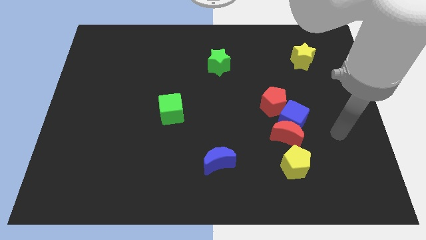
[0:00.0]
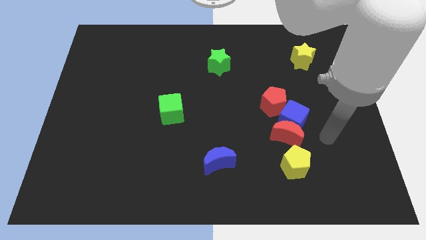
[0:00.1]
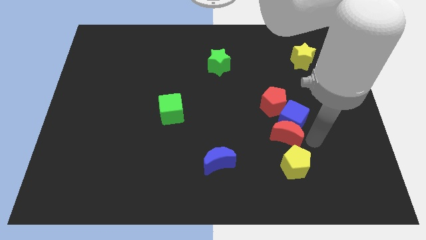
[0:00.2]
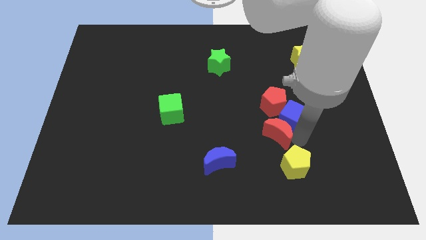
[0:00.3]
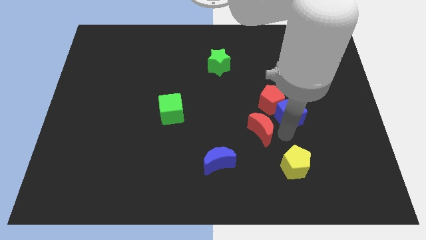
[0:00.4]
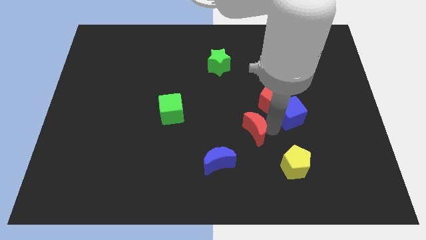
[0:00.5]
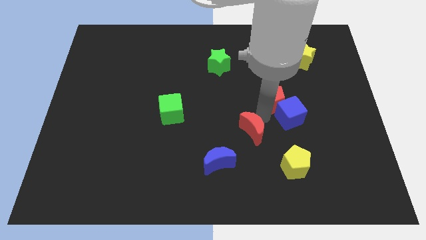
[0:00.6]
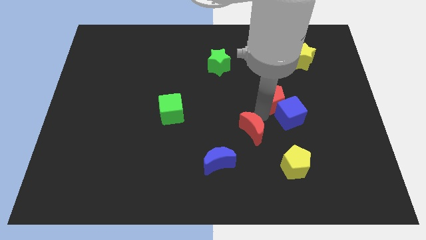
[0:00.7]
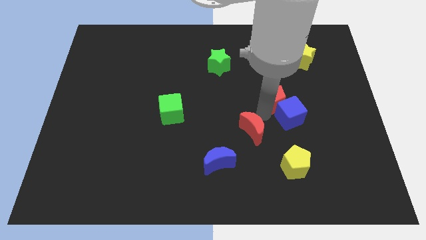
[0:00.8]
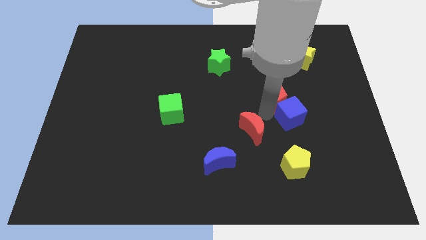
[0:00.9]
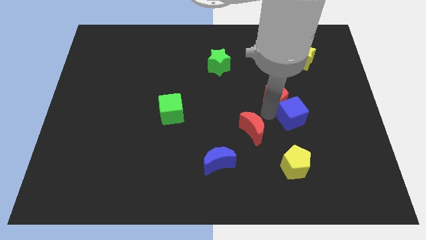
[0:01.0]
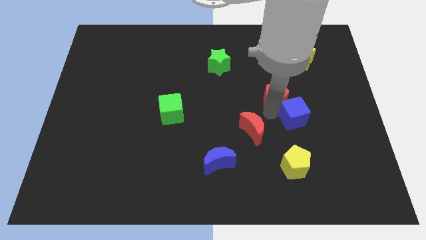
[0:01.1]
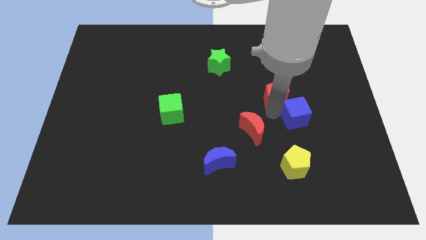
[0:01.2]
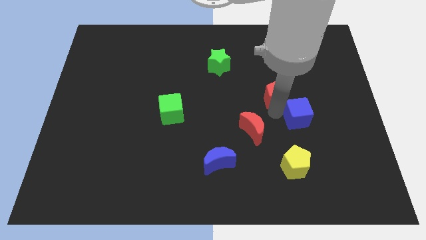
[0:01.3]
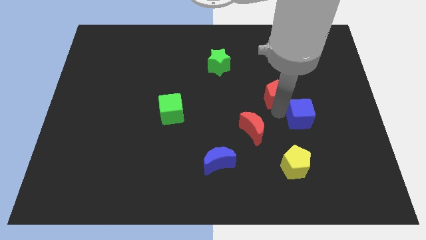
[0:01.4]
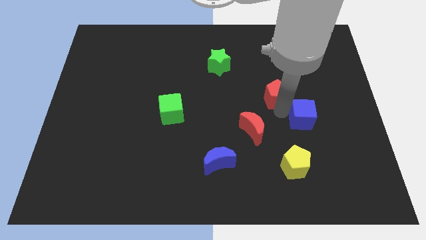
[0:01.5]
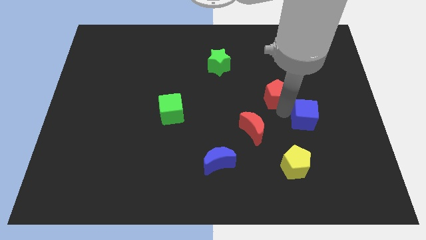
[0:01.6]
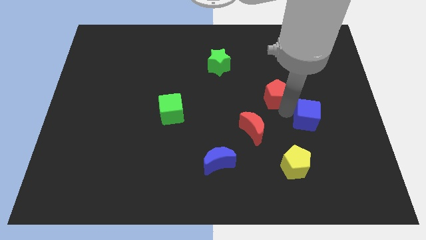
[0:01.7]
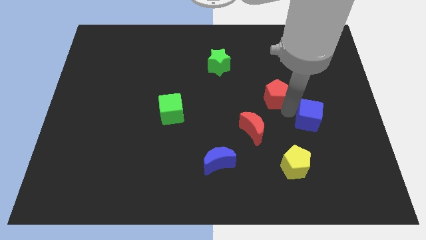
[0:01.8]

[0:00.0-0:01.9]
separate the blue cube from the red moon and red pentagon

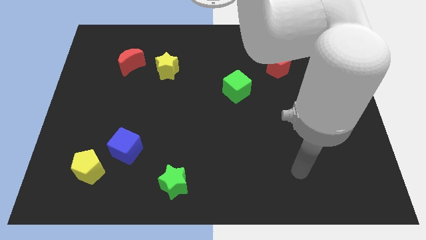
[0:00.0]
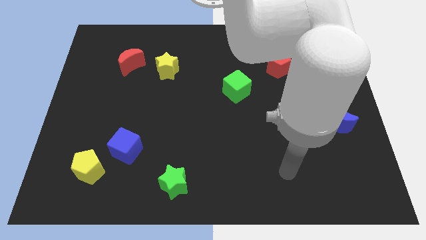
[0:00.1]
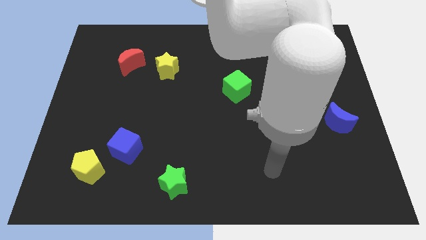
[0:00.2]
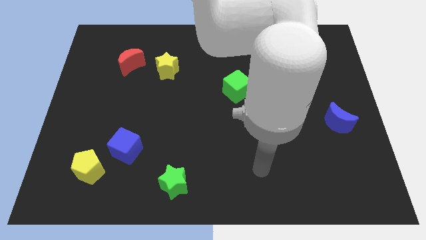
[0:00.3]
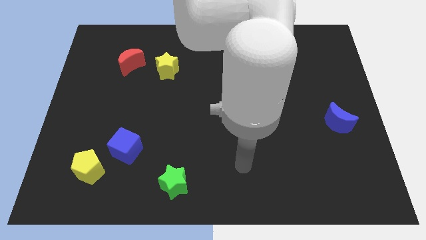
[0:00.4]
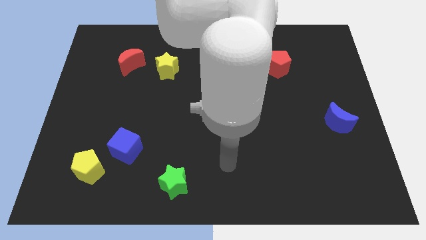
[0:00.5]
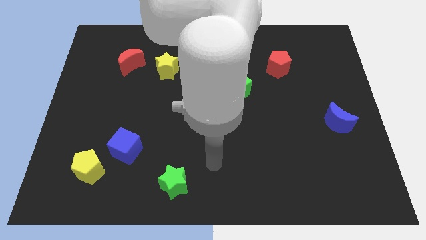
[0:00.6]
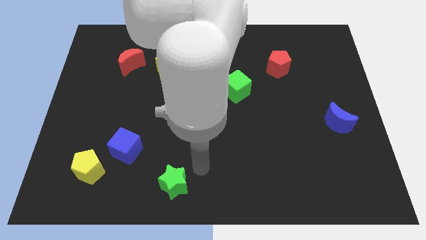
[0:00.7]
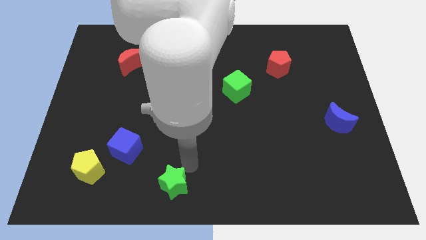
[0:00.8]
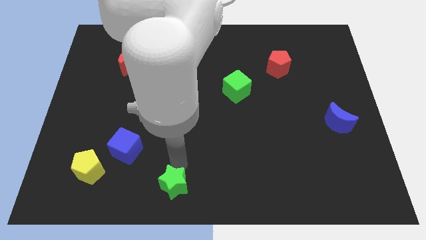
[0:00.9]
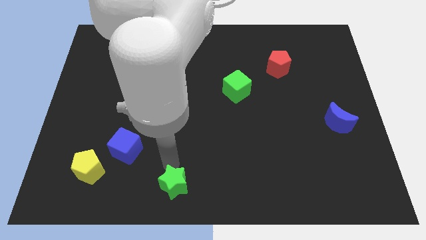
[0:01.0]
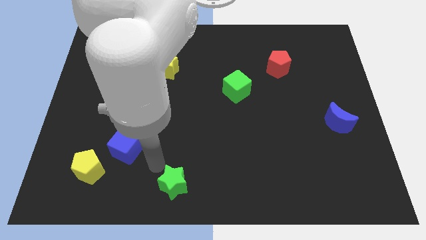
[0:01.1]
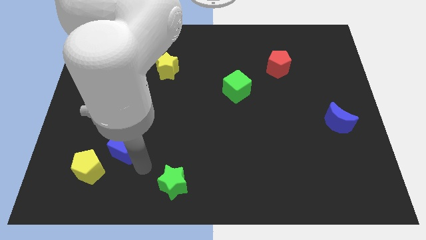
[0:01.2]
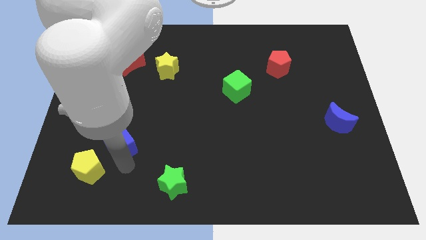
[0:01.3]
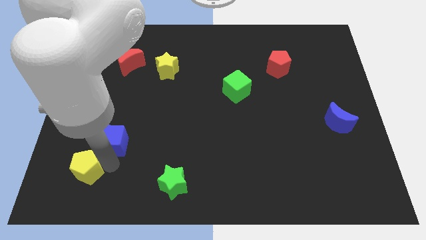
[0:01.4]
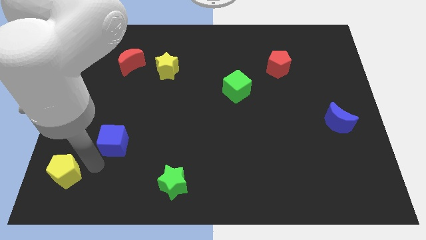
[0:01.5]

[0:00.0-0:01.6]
move the blue cube away from the yellow pentagon

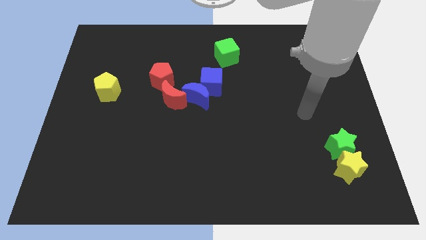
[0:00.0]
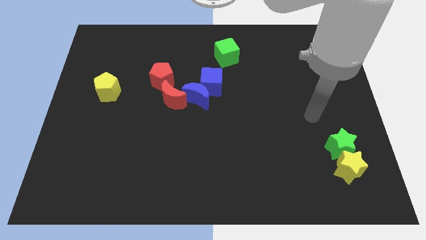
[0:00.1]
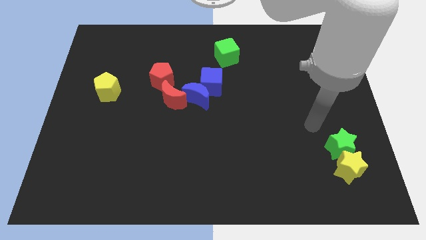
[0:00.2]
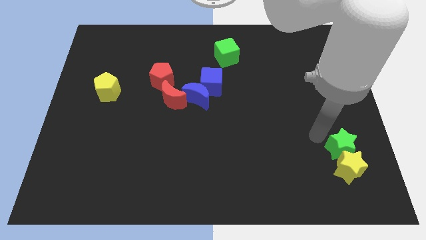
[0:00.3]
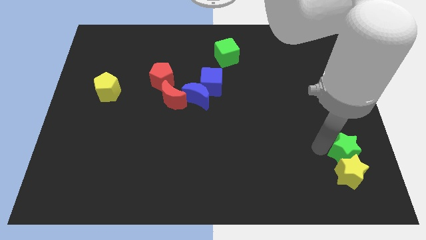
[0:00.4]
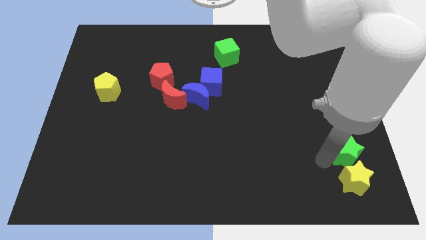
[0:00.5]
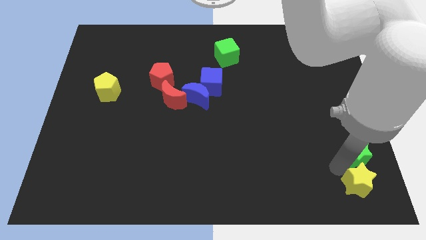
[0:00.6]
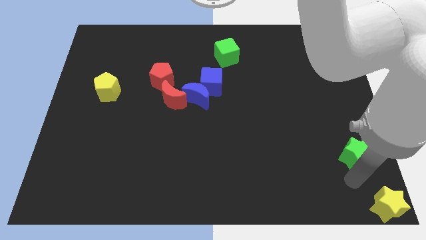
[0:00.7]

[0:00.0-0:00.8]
separate the green star from the yellow star

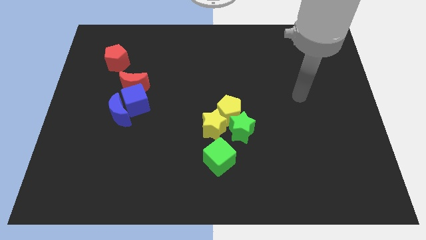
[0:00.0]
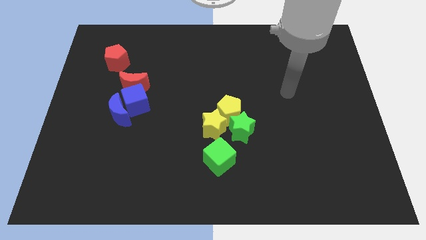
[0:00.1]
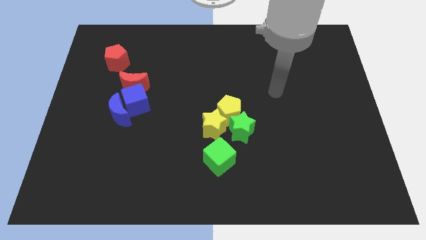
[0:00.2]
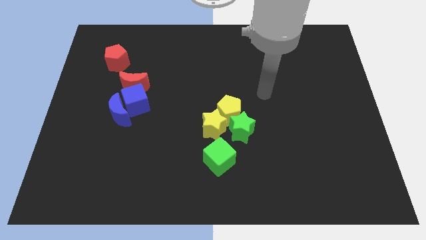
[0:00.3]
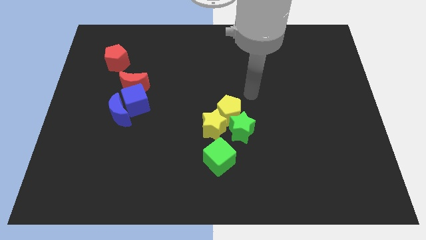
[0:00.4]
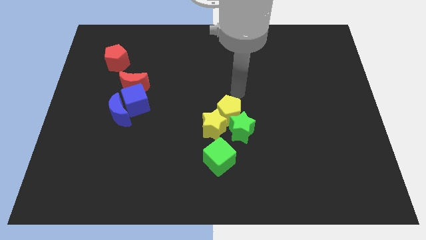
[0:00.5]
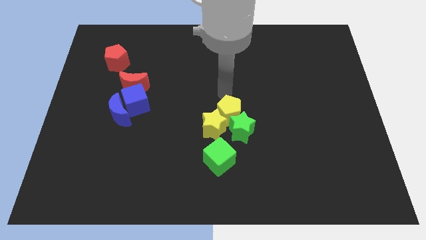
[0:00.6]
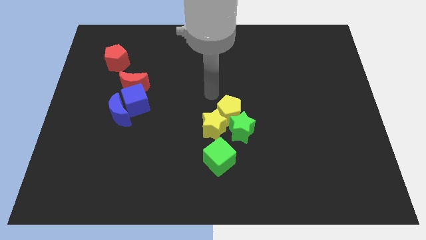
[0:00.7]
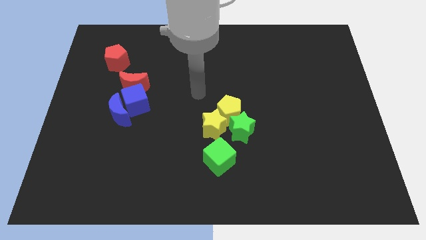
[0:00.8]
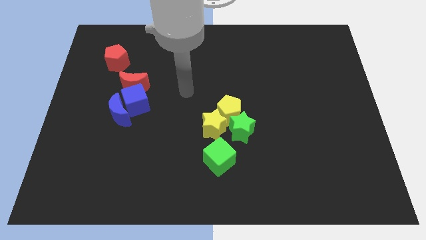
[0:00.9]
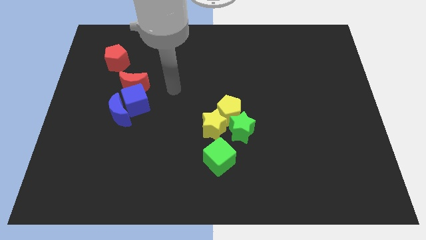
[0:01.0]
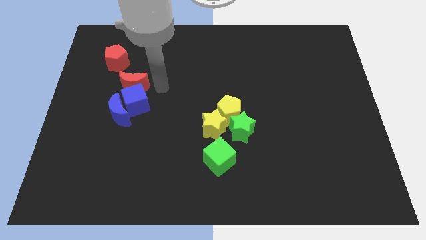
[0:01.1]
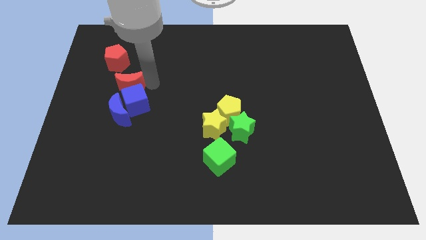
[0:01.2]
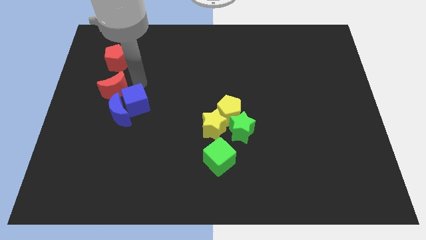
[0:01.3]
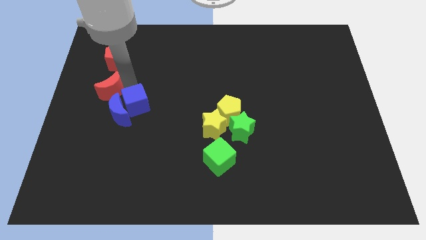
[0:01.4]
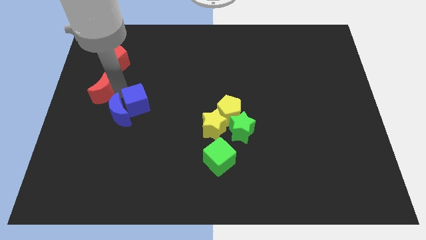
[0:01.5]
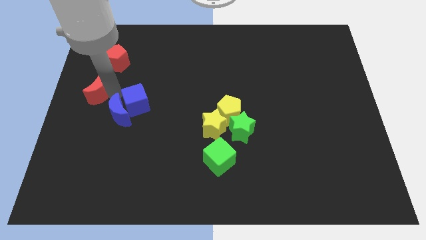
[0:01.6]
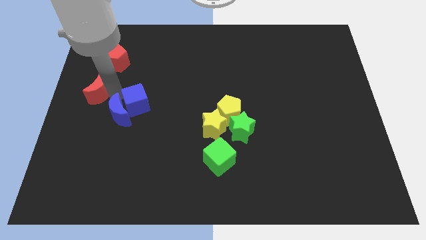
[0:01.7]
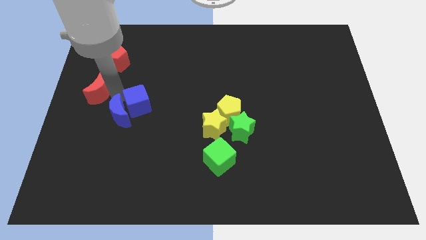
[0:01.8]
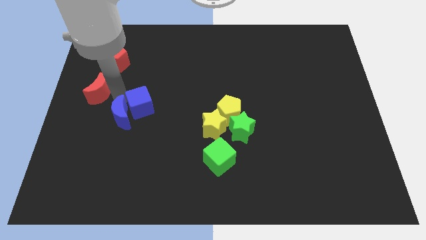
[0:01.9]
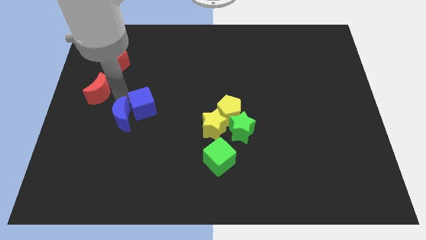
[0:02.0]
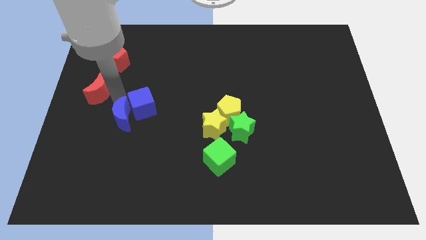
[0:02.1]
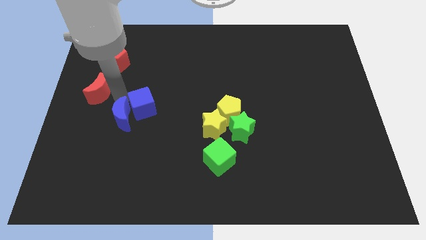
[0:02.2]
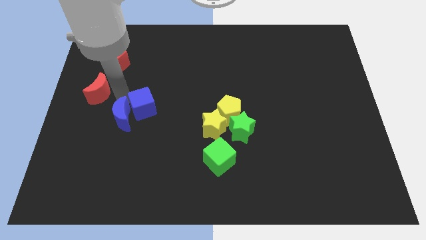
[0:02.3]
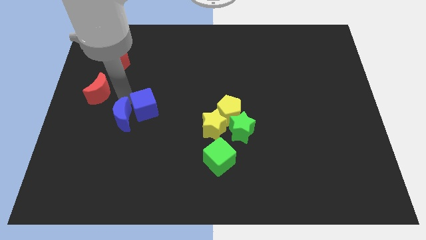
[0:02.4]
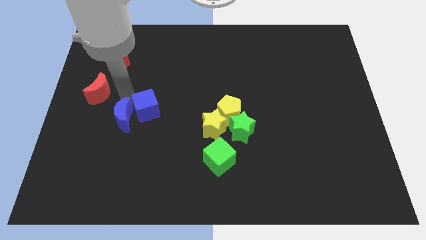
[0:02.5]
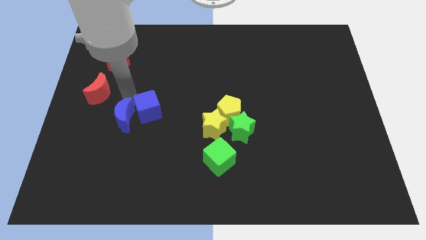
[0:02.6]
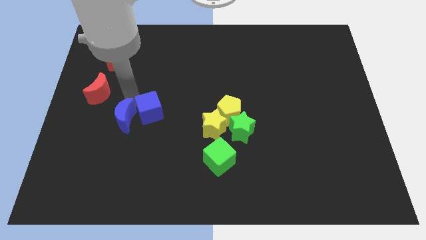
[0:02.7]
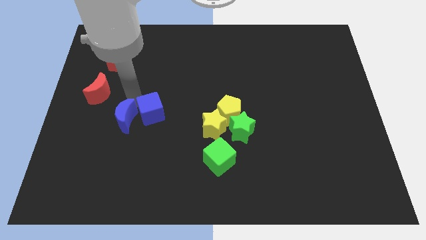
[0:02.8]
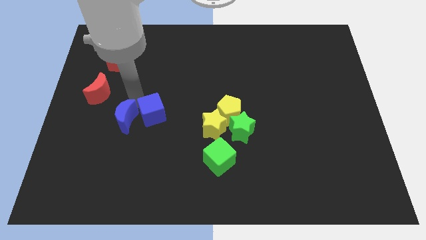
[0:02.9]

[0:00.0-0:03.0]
pull the blue cube apart from the blue moon and red moon

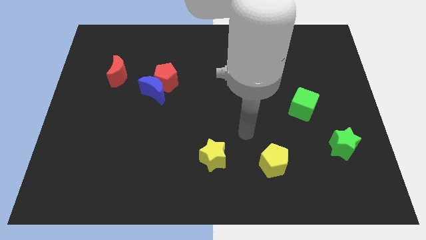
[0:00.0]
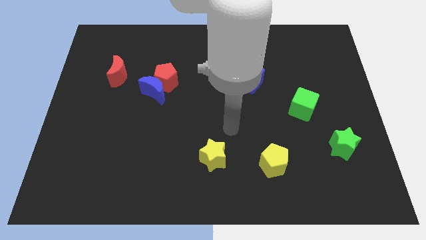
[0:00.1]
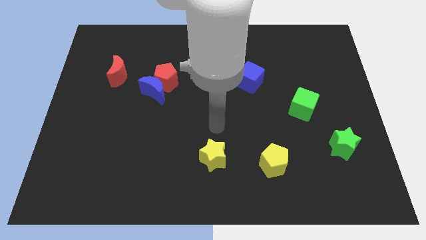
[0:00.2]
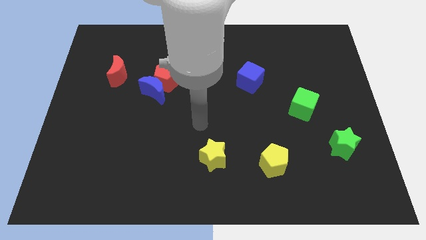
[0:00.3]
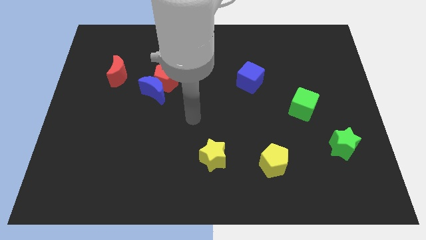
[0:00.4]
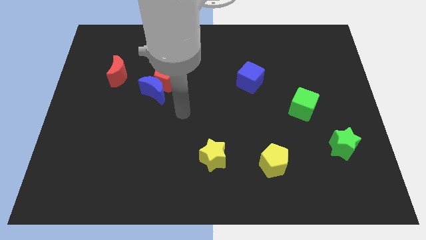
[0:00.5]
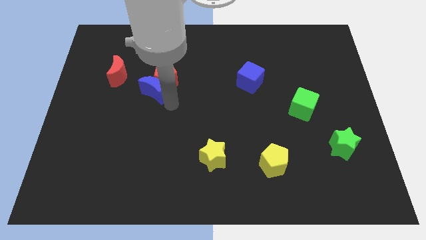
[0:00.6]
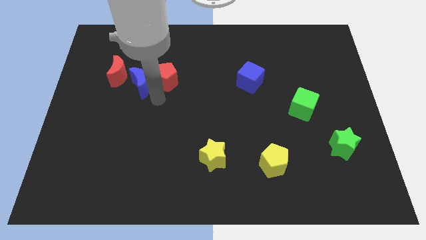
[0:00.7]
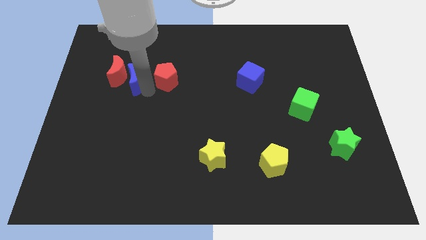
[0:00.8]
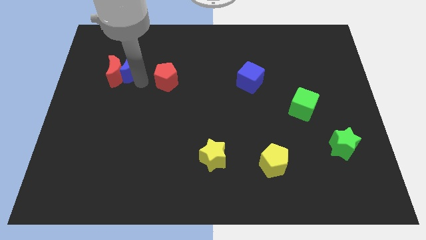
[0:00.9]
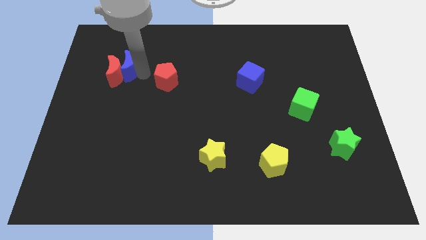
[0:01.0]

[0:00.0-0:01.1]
move the red pentagon away from the blue moon

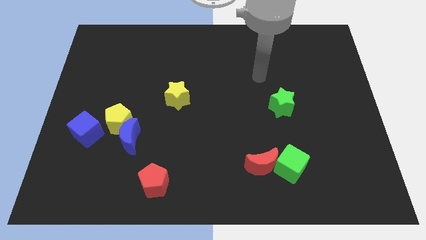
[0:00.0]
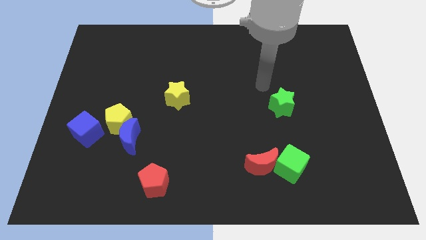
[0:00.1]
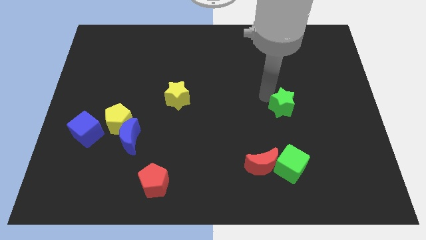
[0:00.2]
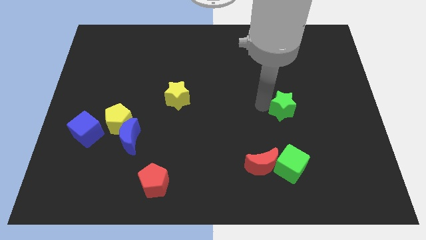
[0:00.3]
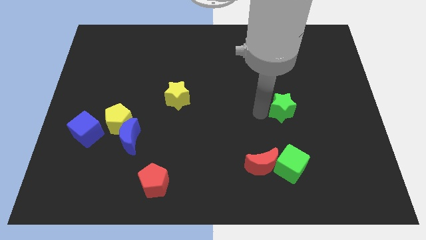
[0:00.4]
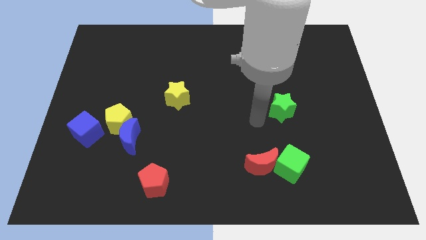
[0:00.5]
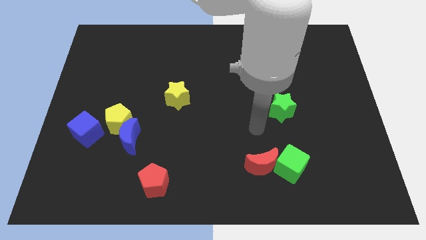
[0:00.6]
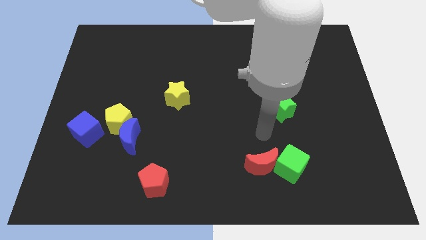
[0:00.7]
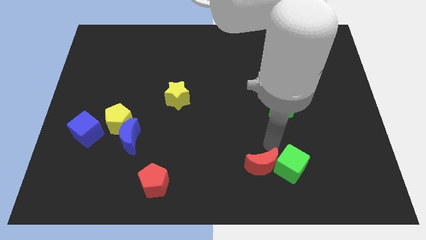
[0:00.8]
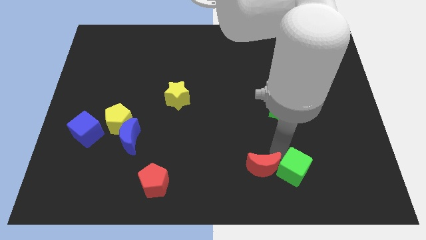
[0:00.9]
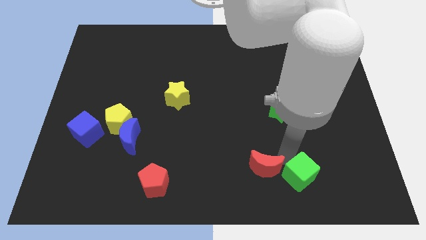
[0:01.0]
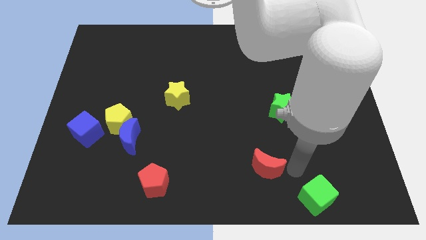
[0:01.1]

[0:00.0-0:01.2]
separate the red moon from the green cube
